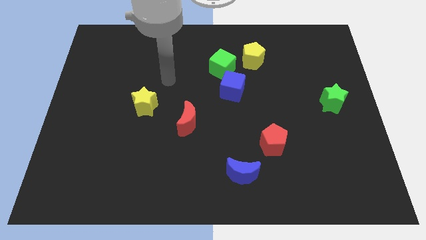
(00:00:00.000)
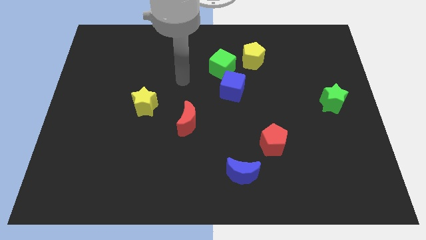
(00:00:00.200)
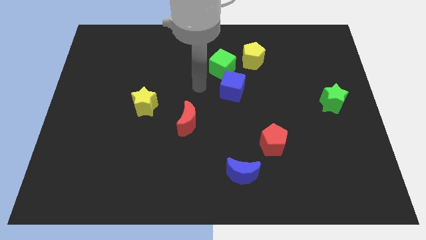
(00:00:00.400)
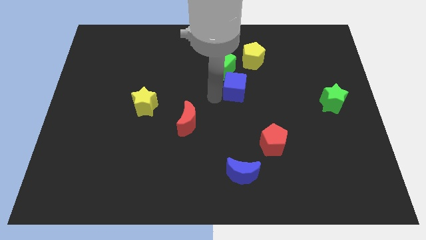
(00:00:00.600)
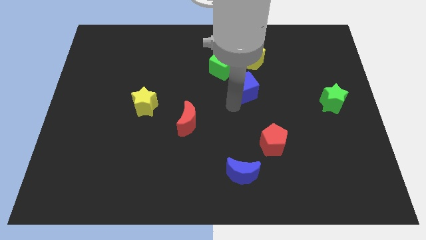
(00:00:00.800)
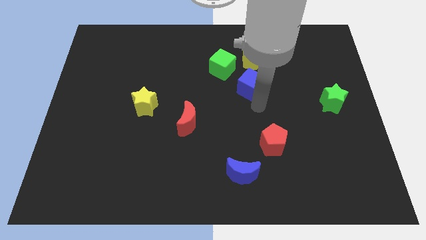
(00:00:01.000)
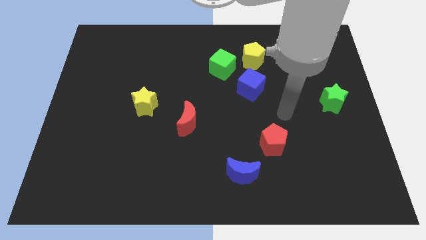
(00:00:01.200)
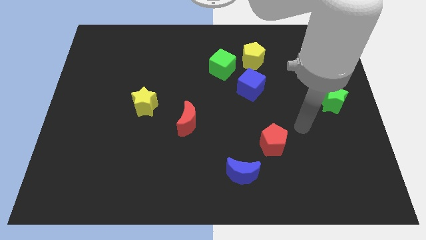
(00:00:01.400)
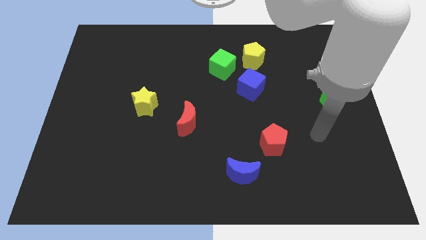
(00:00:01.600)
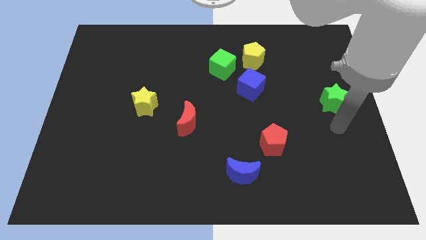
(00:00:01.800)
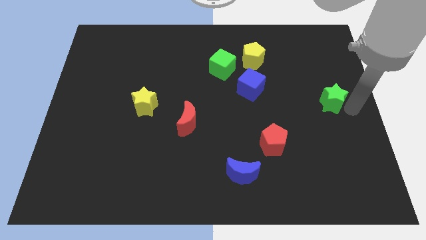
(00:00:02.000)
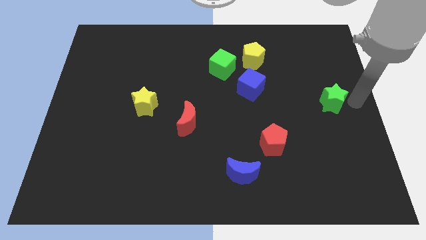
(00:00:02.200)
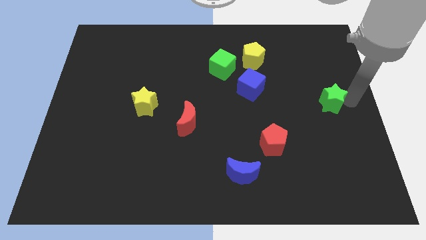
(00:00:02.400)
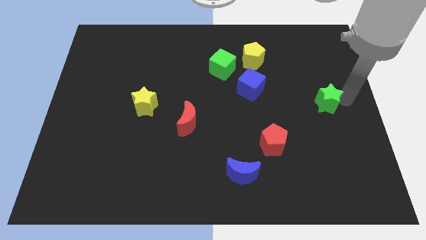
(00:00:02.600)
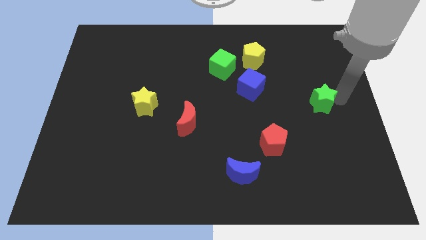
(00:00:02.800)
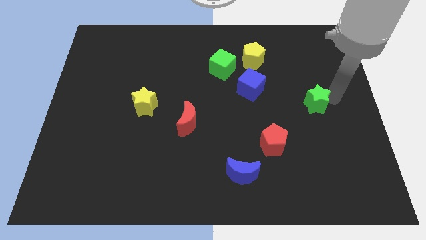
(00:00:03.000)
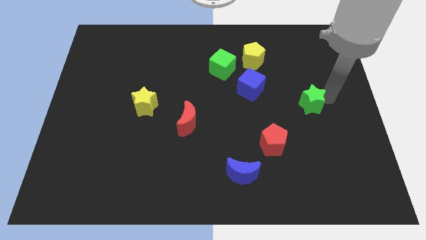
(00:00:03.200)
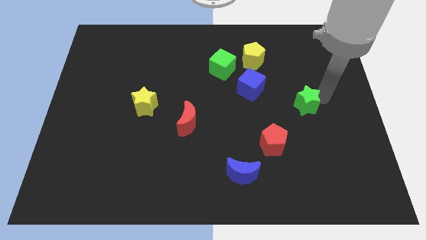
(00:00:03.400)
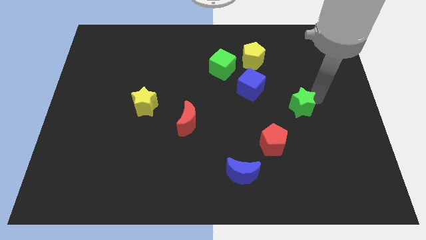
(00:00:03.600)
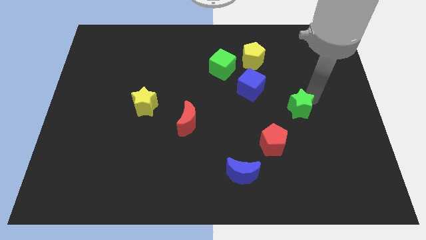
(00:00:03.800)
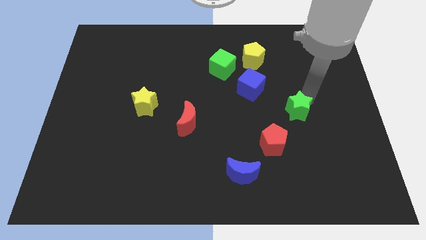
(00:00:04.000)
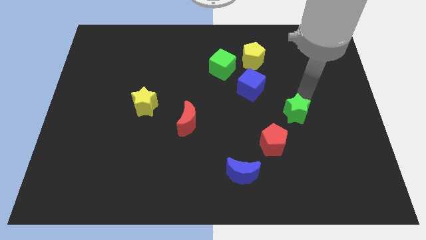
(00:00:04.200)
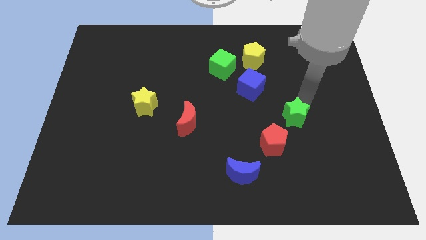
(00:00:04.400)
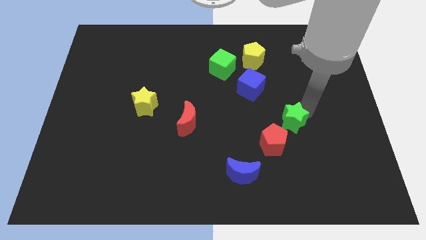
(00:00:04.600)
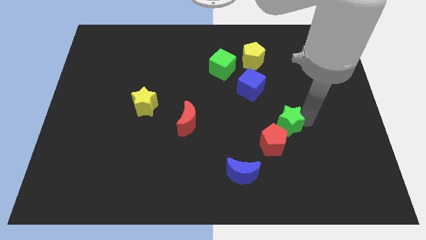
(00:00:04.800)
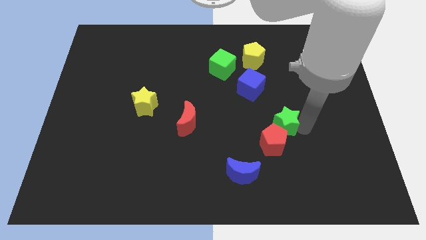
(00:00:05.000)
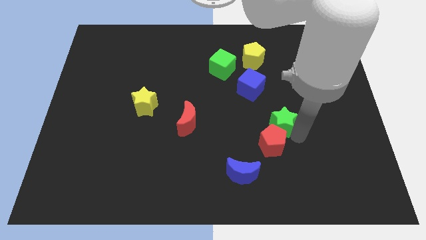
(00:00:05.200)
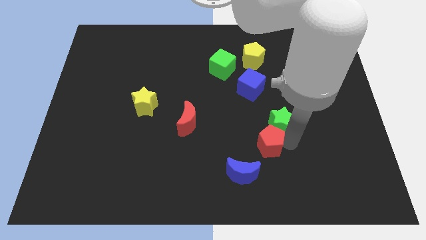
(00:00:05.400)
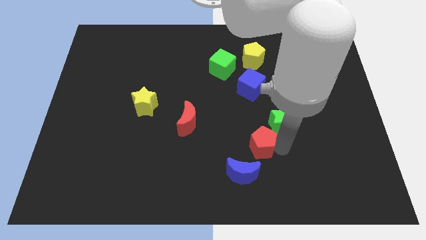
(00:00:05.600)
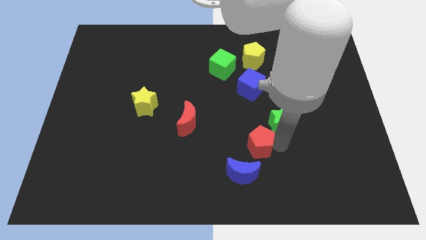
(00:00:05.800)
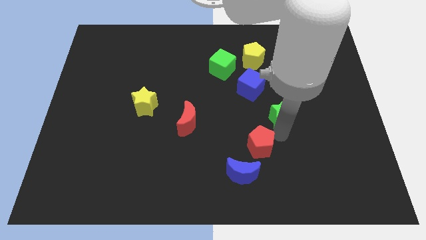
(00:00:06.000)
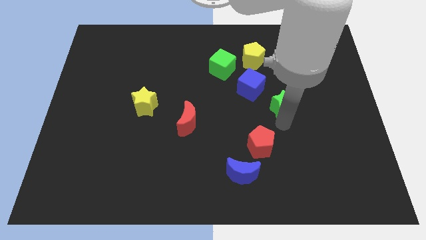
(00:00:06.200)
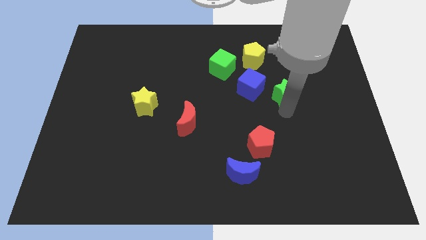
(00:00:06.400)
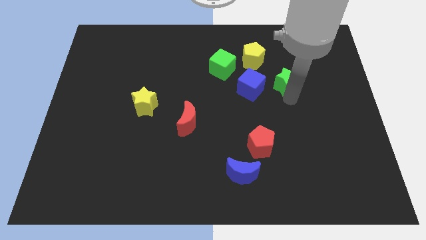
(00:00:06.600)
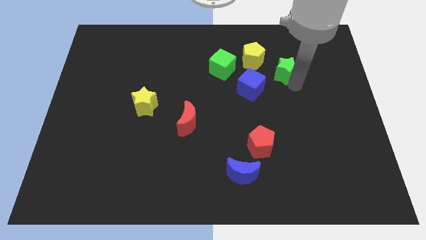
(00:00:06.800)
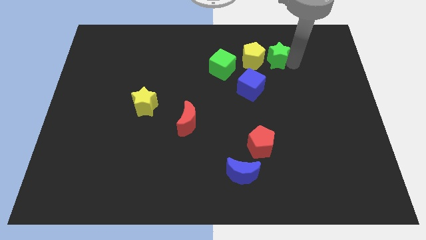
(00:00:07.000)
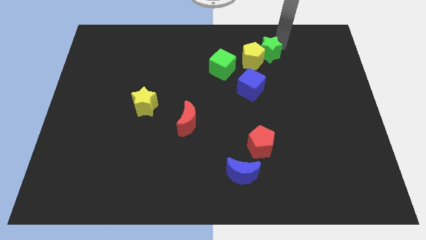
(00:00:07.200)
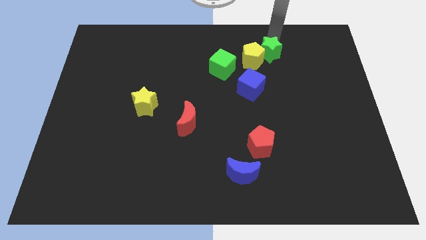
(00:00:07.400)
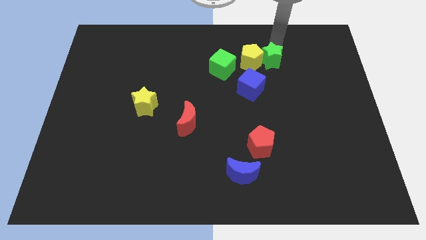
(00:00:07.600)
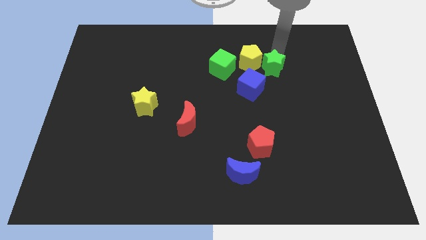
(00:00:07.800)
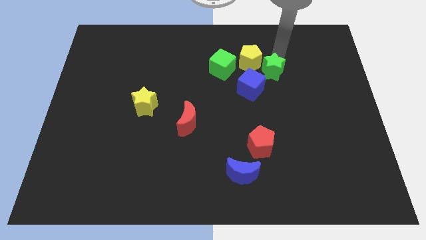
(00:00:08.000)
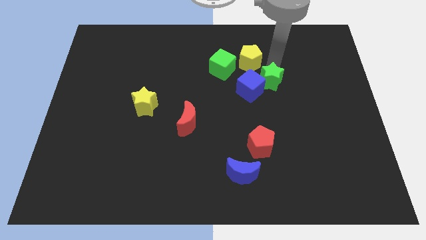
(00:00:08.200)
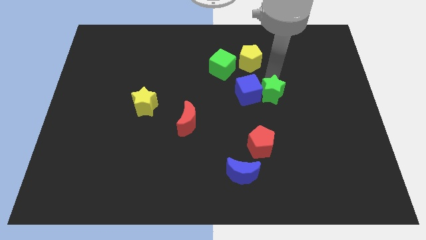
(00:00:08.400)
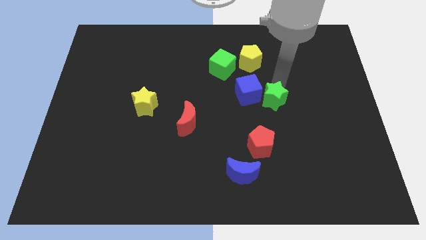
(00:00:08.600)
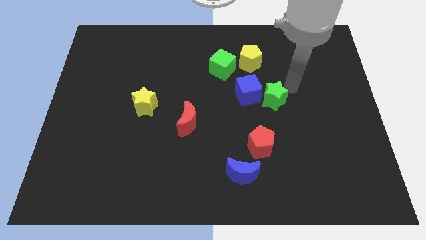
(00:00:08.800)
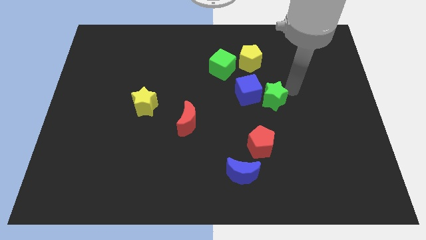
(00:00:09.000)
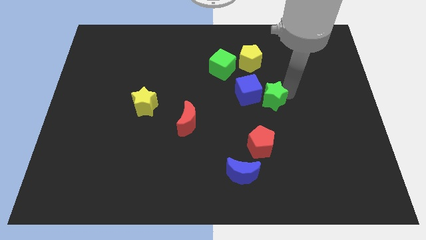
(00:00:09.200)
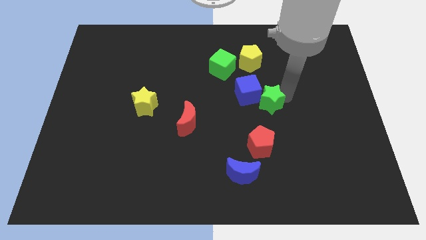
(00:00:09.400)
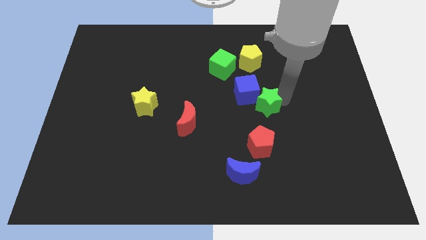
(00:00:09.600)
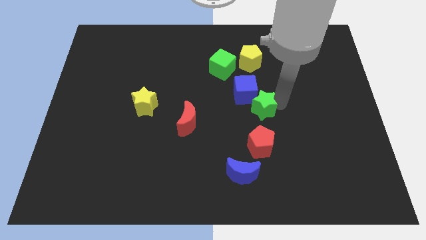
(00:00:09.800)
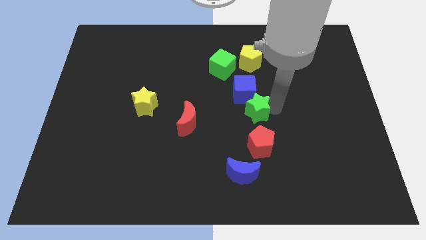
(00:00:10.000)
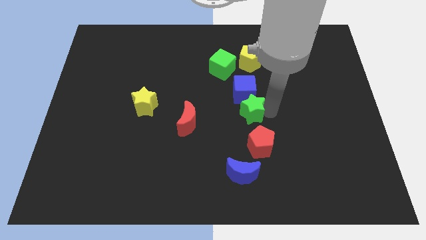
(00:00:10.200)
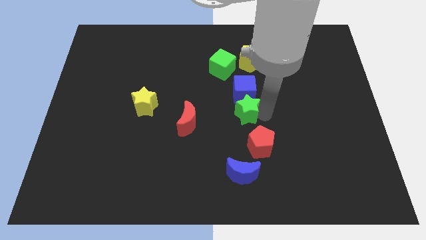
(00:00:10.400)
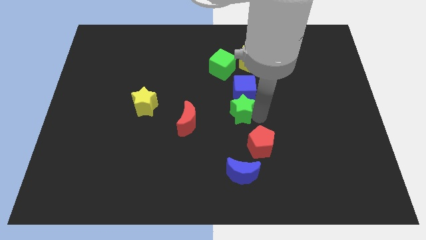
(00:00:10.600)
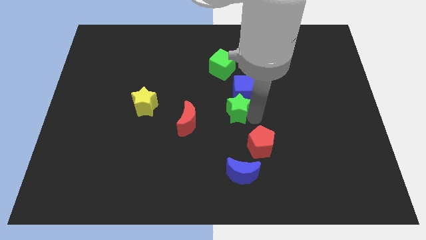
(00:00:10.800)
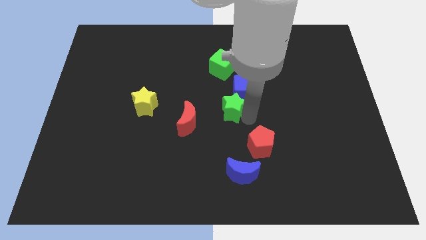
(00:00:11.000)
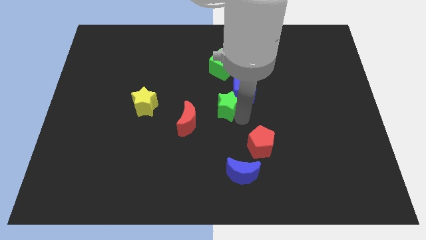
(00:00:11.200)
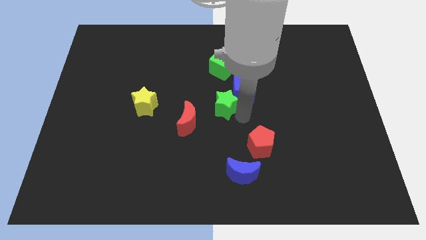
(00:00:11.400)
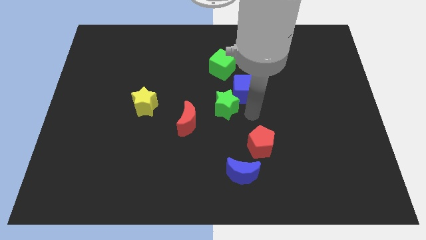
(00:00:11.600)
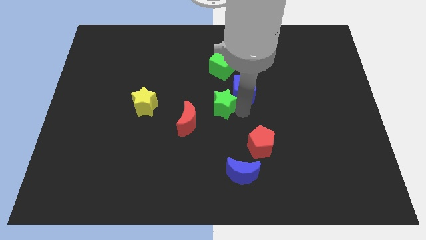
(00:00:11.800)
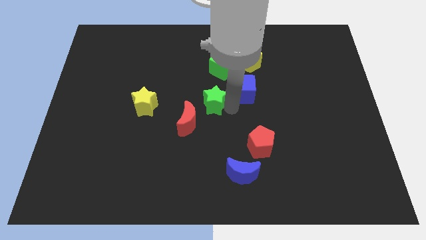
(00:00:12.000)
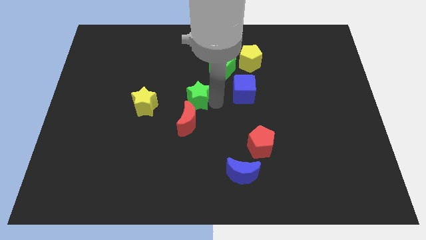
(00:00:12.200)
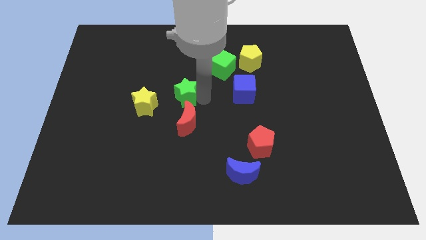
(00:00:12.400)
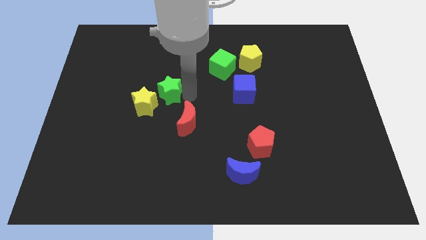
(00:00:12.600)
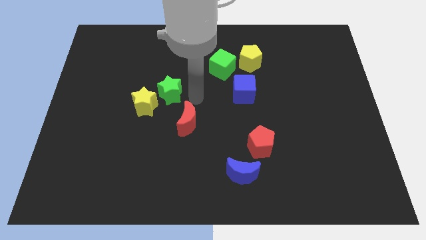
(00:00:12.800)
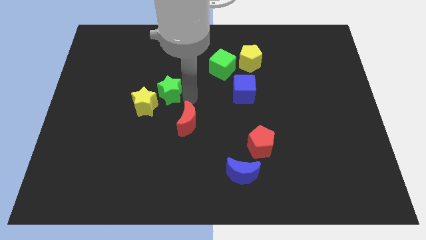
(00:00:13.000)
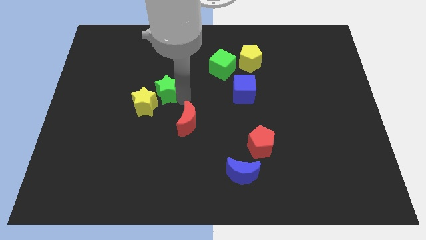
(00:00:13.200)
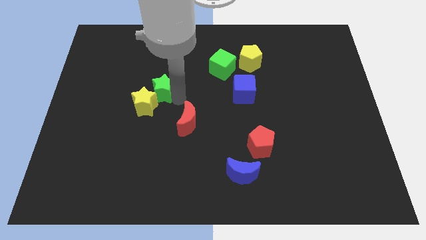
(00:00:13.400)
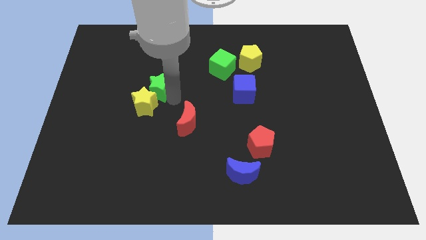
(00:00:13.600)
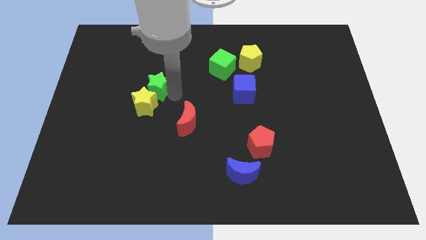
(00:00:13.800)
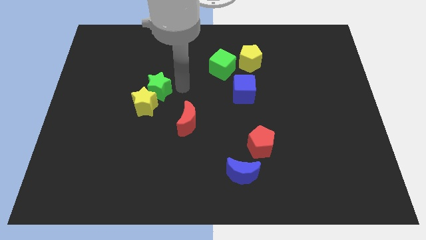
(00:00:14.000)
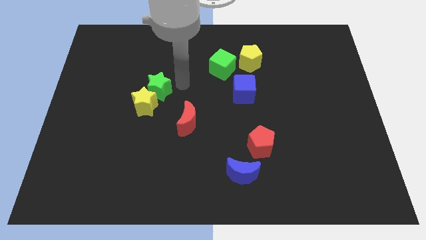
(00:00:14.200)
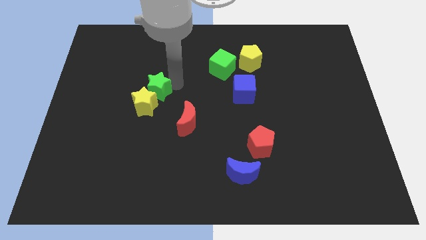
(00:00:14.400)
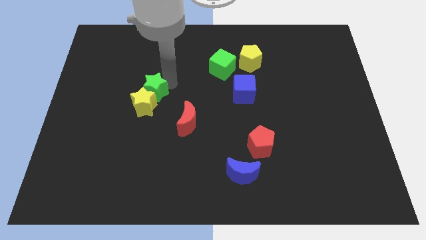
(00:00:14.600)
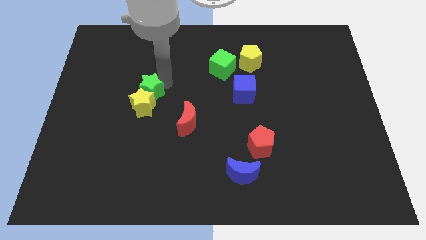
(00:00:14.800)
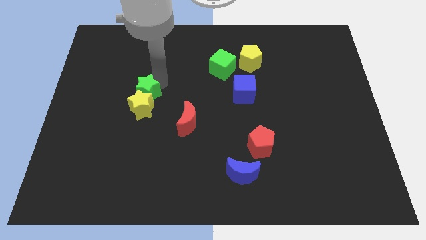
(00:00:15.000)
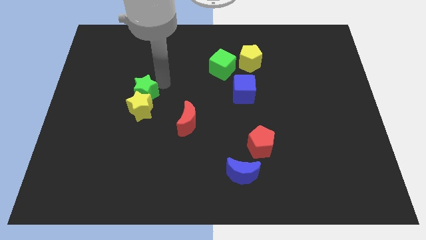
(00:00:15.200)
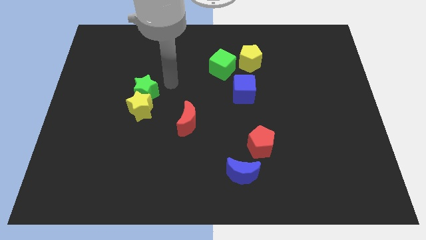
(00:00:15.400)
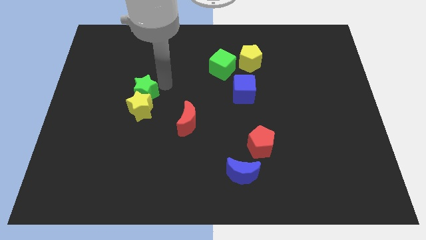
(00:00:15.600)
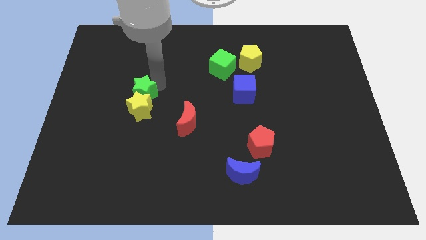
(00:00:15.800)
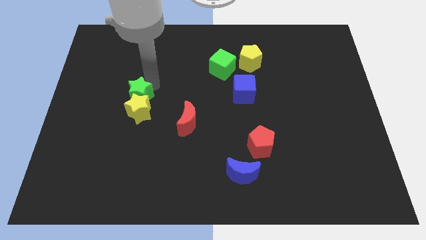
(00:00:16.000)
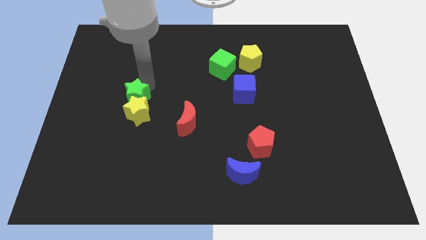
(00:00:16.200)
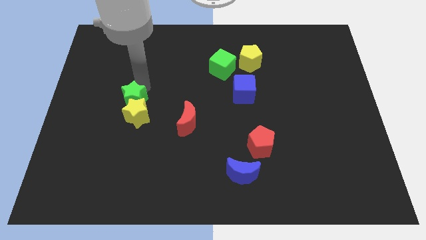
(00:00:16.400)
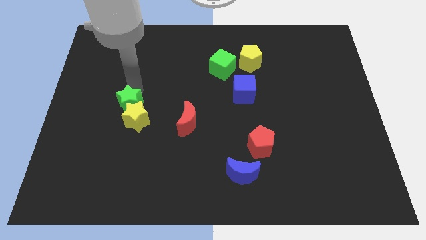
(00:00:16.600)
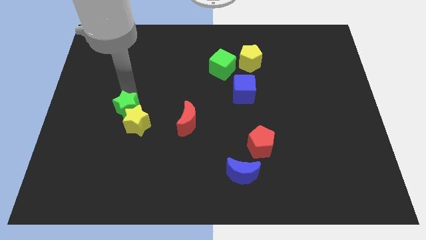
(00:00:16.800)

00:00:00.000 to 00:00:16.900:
put the green star to the left of the yellow star
